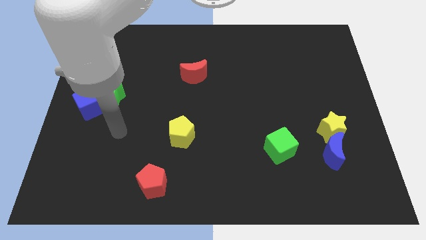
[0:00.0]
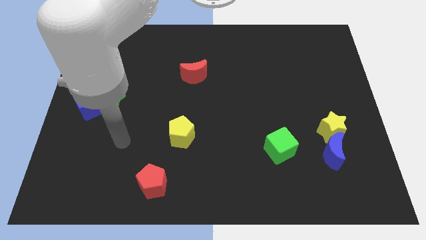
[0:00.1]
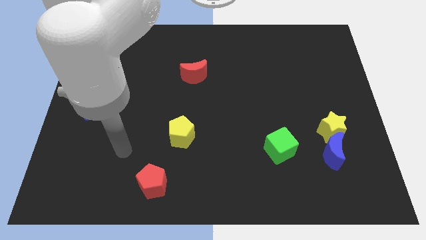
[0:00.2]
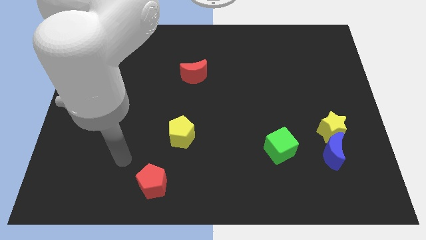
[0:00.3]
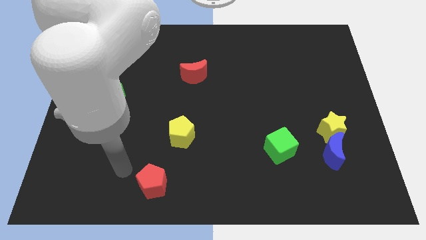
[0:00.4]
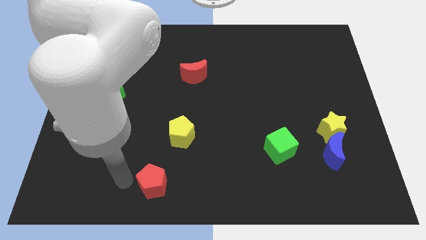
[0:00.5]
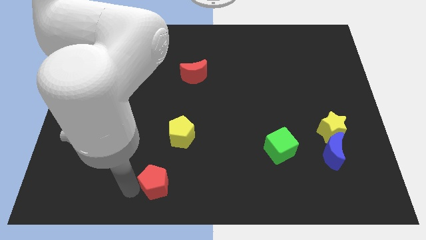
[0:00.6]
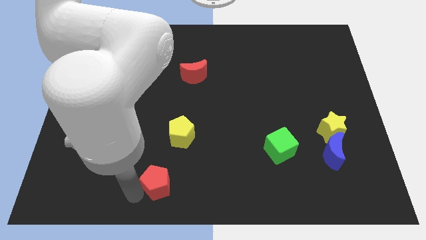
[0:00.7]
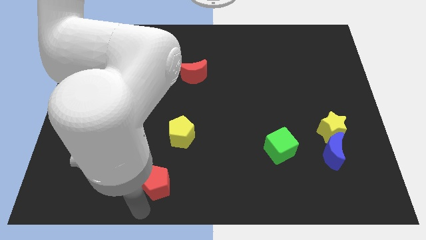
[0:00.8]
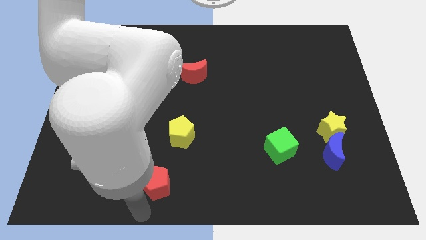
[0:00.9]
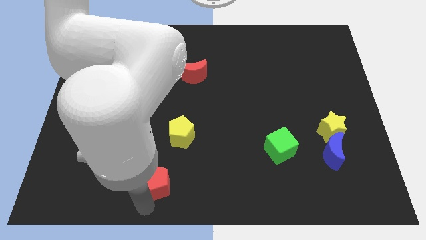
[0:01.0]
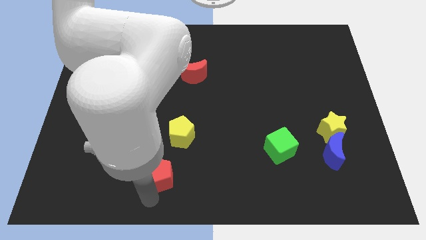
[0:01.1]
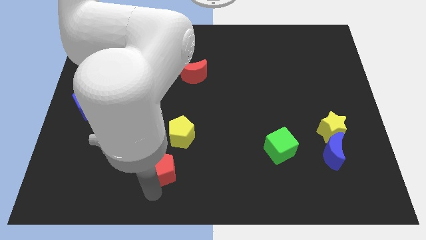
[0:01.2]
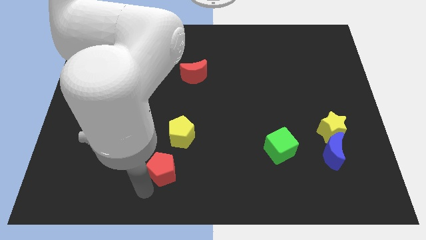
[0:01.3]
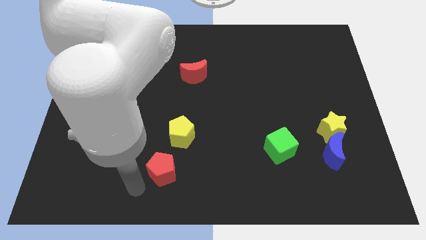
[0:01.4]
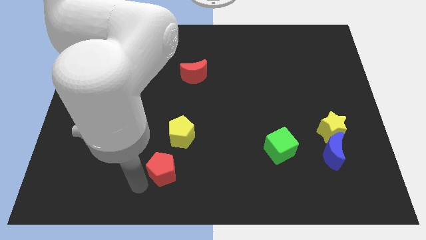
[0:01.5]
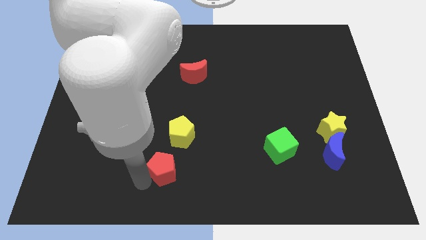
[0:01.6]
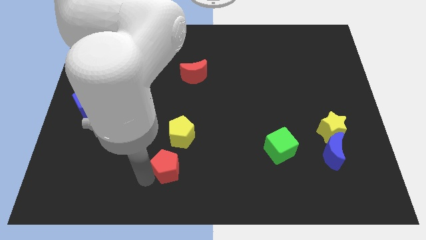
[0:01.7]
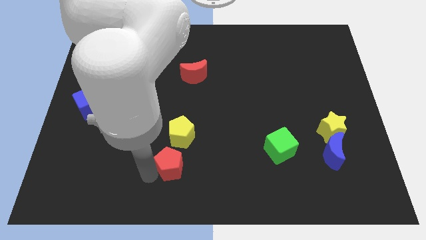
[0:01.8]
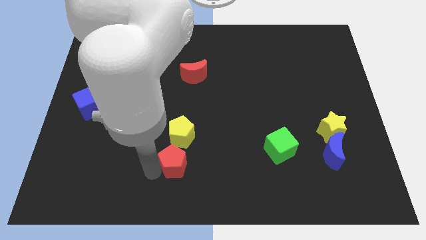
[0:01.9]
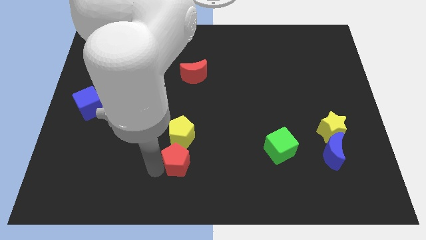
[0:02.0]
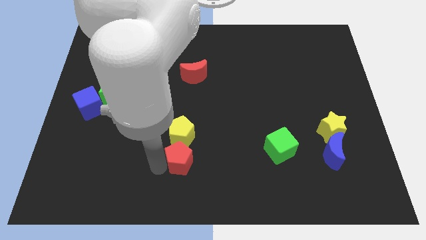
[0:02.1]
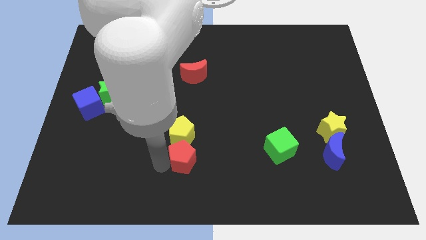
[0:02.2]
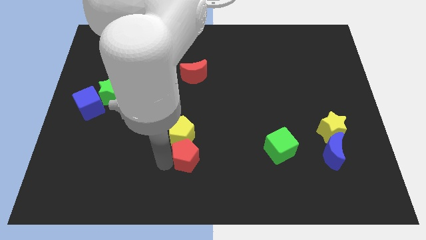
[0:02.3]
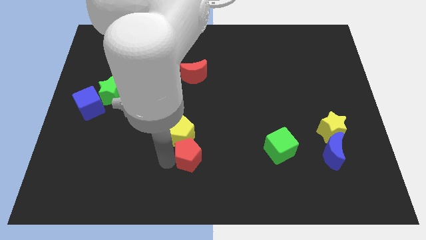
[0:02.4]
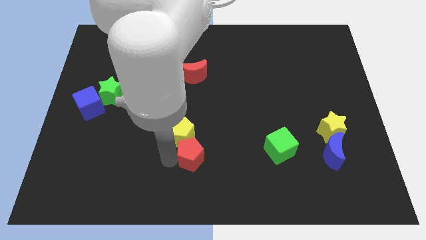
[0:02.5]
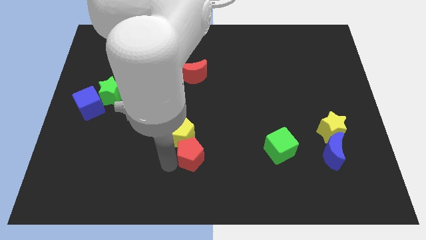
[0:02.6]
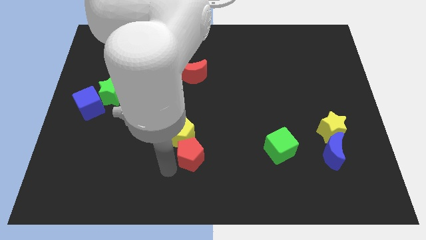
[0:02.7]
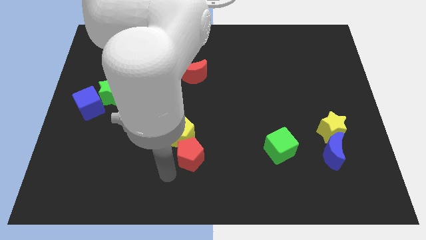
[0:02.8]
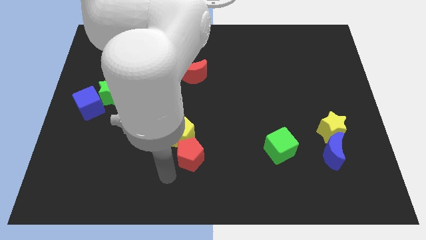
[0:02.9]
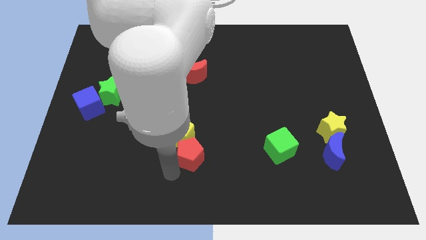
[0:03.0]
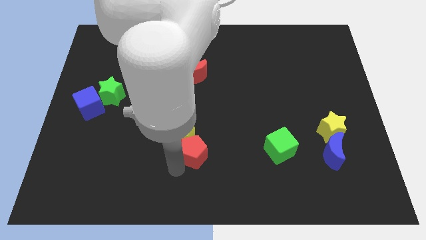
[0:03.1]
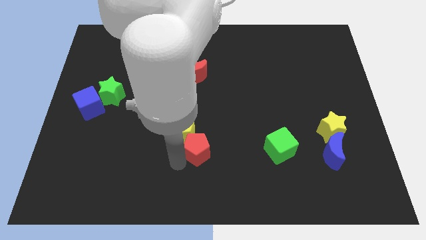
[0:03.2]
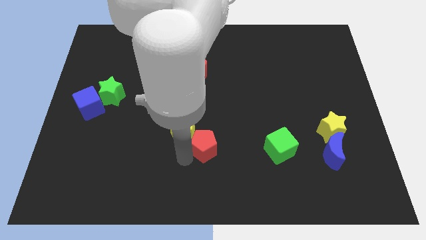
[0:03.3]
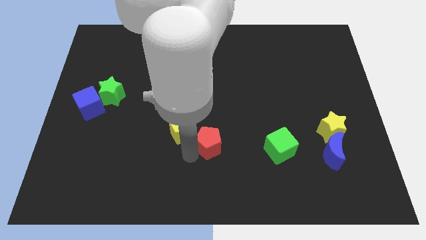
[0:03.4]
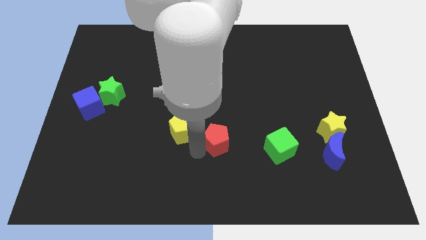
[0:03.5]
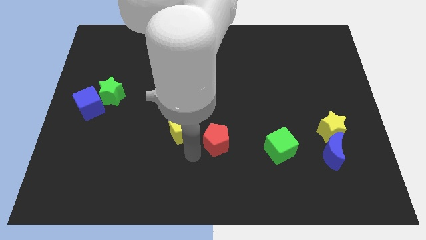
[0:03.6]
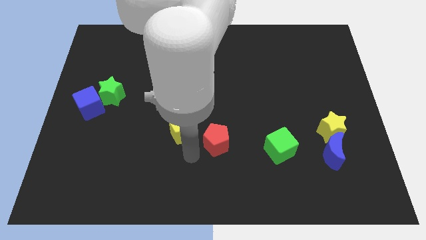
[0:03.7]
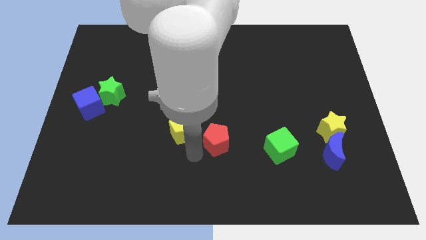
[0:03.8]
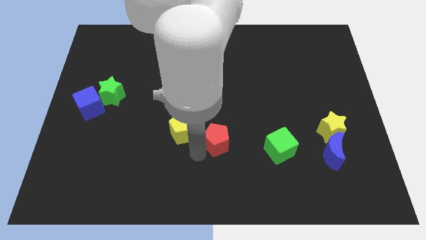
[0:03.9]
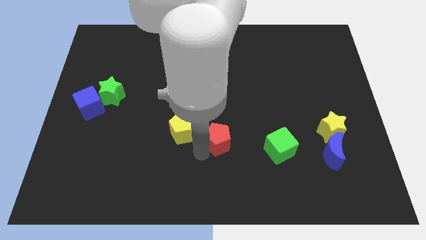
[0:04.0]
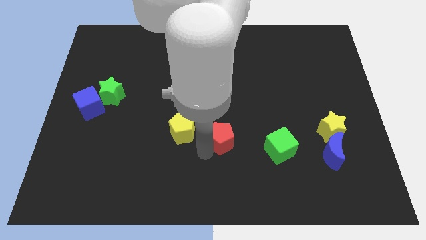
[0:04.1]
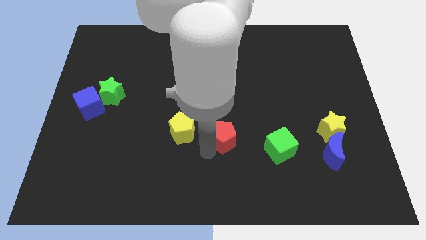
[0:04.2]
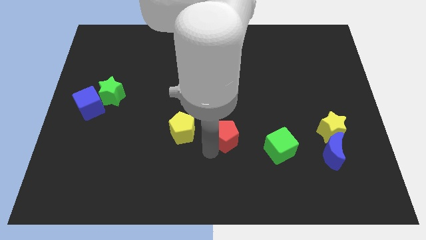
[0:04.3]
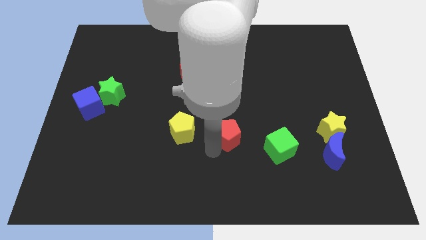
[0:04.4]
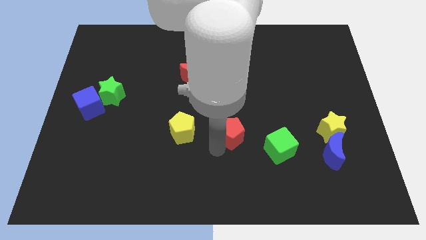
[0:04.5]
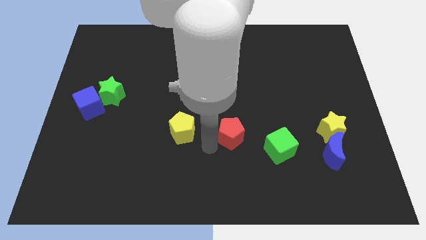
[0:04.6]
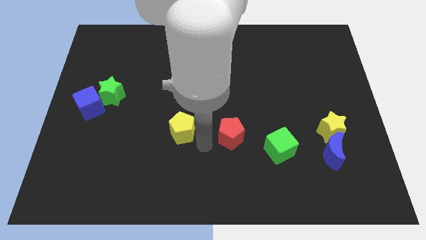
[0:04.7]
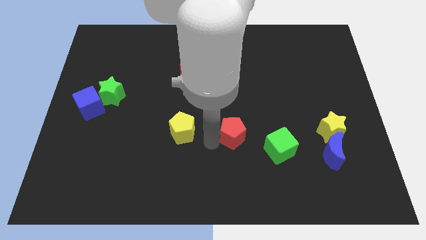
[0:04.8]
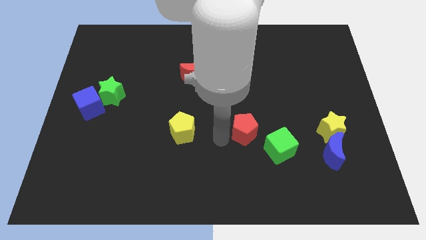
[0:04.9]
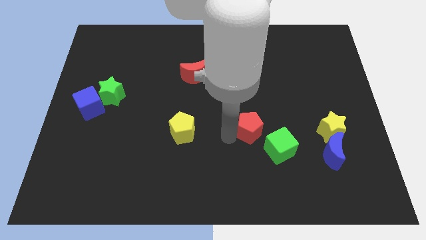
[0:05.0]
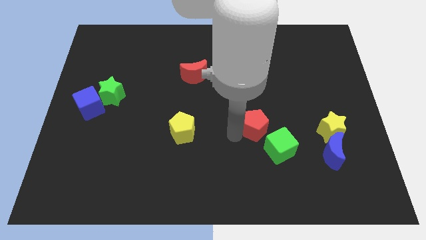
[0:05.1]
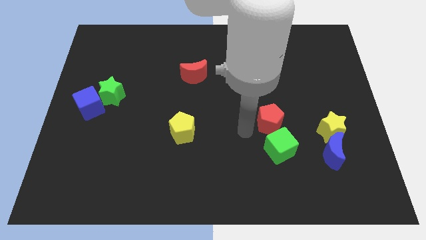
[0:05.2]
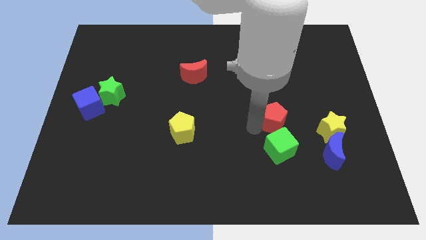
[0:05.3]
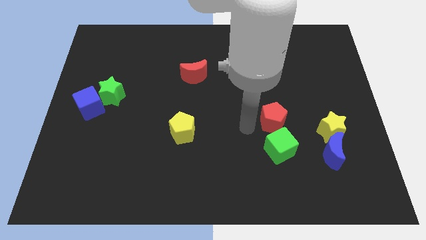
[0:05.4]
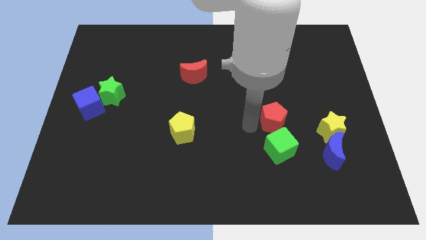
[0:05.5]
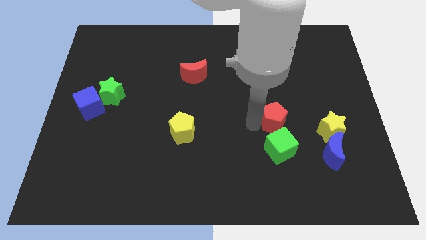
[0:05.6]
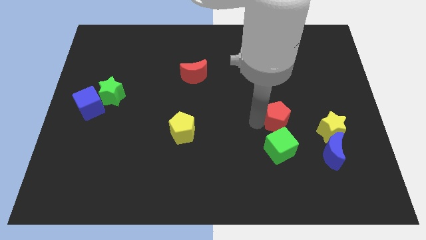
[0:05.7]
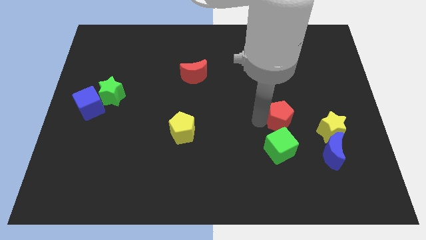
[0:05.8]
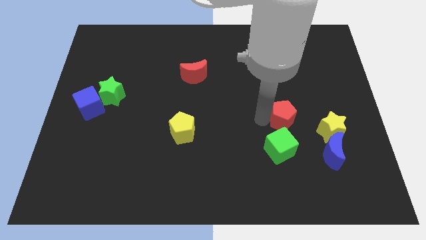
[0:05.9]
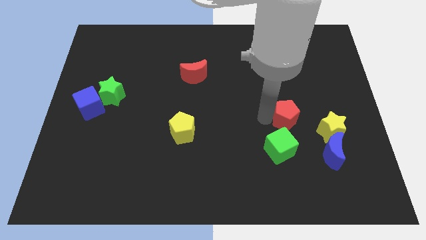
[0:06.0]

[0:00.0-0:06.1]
move the red pentagon diagonally up and to the left of the yellow star
